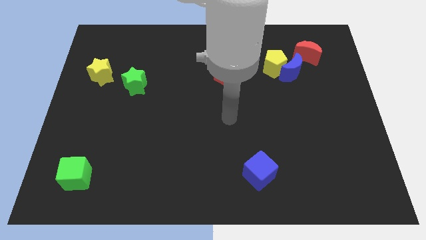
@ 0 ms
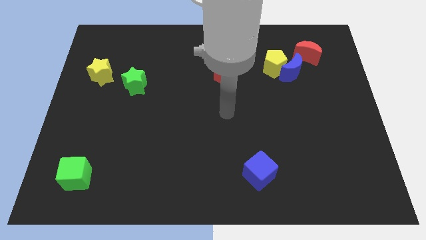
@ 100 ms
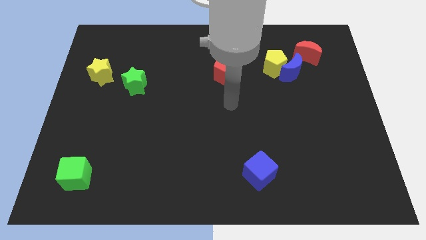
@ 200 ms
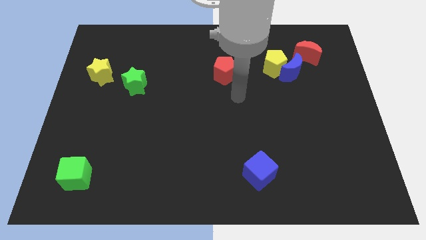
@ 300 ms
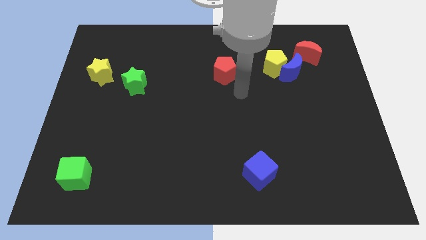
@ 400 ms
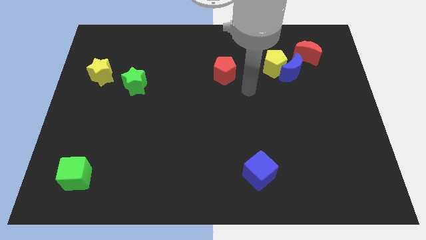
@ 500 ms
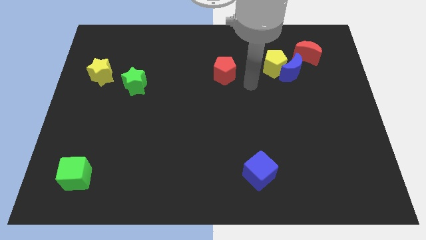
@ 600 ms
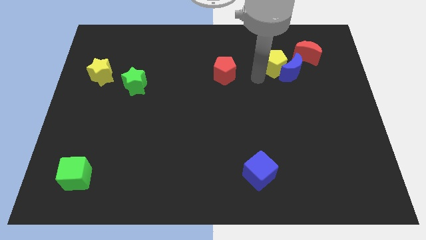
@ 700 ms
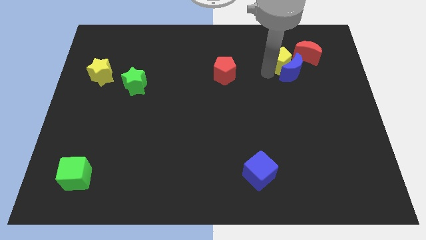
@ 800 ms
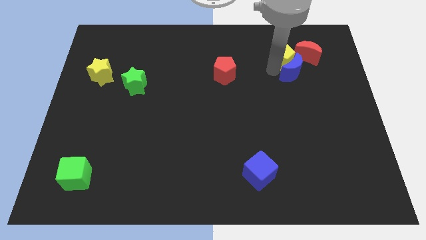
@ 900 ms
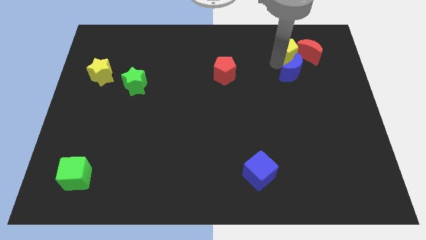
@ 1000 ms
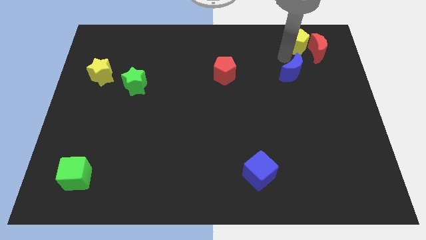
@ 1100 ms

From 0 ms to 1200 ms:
pull the blue moon apart from the yellow pentagon and red moon

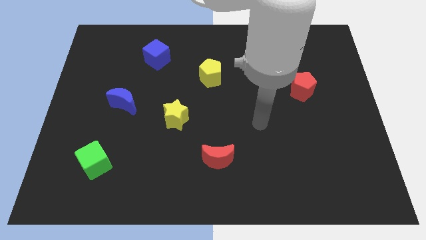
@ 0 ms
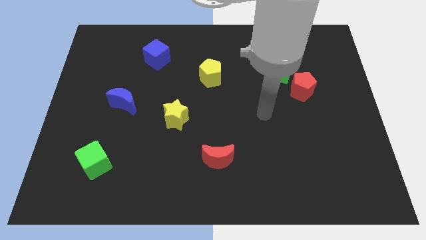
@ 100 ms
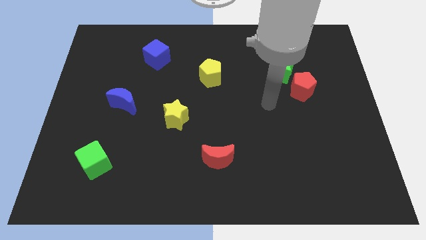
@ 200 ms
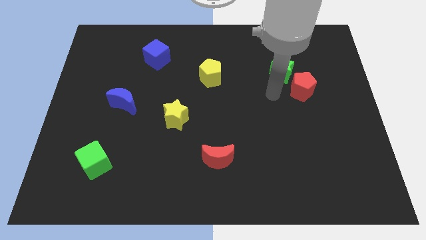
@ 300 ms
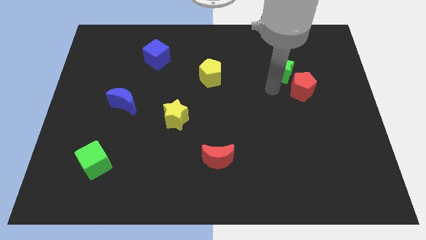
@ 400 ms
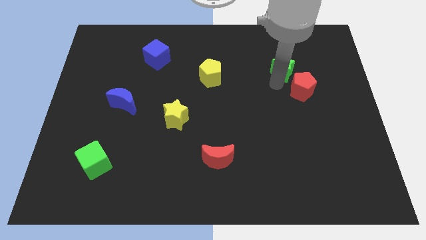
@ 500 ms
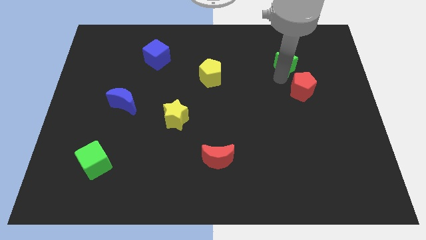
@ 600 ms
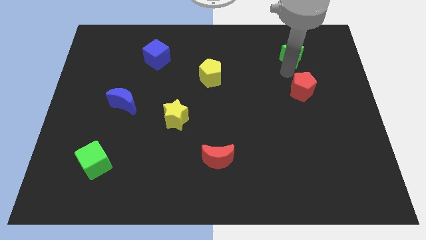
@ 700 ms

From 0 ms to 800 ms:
move the red pentagon away from the green star

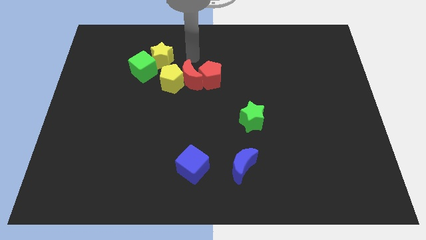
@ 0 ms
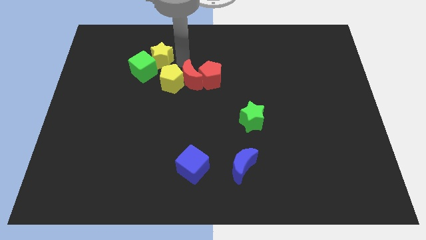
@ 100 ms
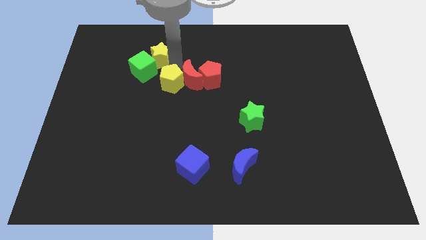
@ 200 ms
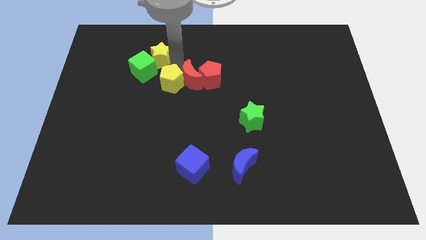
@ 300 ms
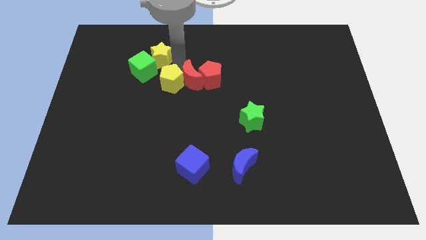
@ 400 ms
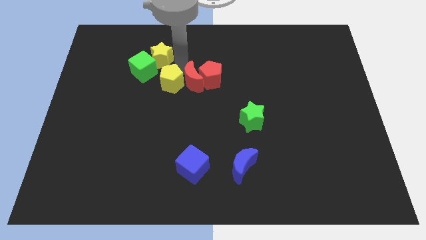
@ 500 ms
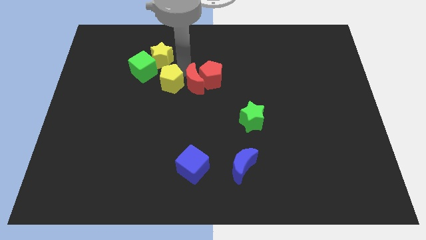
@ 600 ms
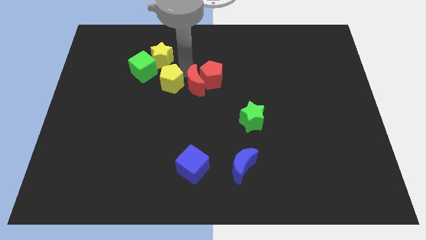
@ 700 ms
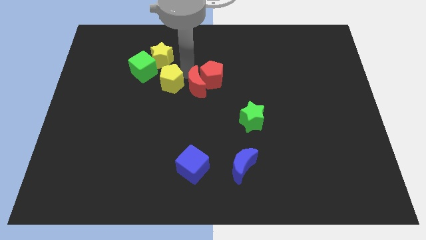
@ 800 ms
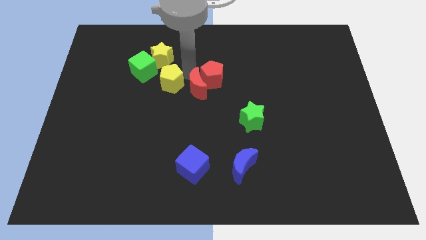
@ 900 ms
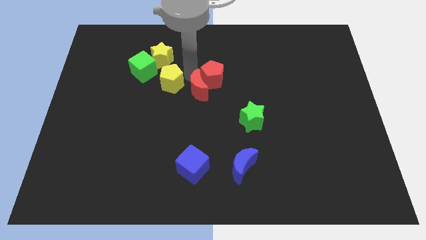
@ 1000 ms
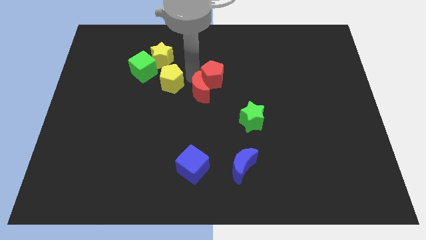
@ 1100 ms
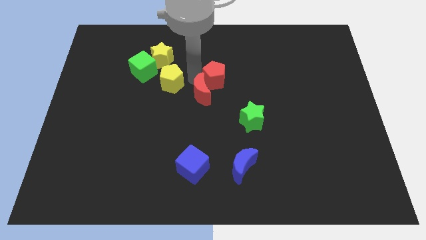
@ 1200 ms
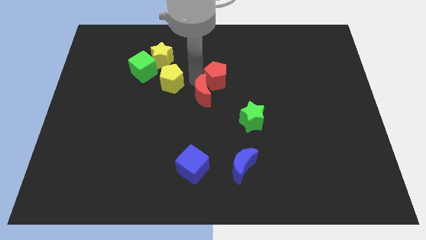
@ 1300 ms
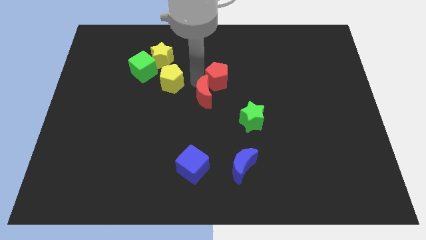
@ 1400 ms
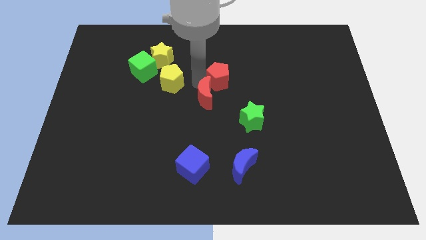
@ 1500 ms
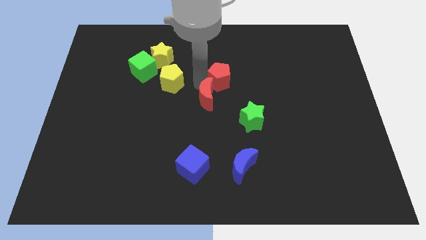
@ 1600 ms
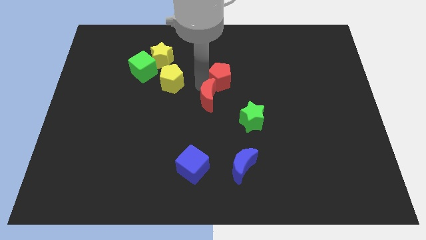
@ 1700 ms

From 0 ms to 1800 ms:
separate the red moon from the group

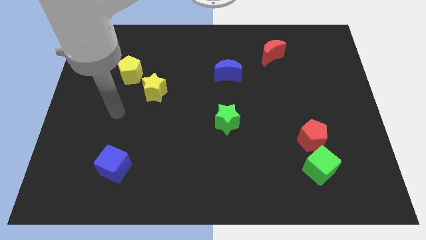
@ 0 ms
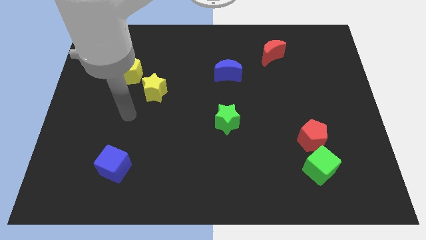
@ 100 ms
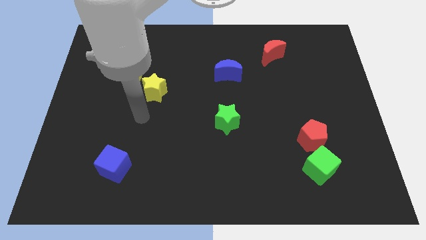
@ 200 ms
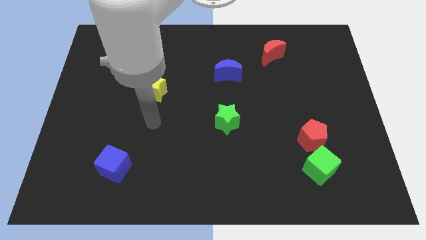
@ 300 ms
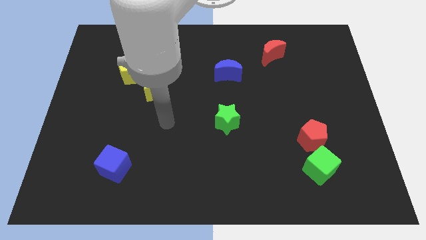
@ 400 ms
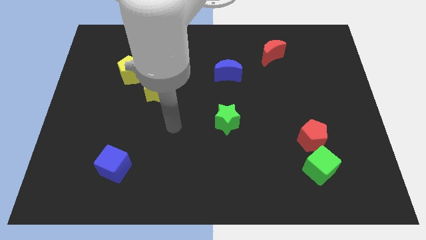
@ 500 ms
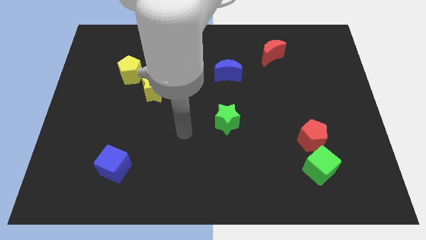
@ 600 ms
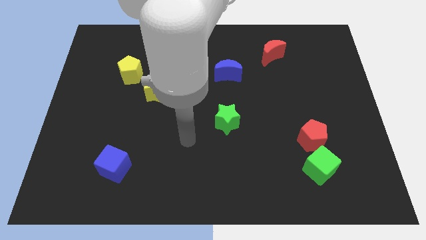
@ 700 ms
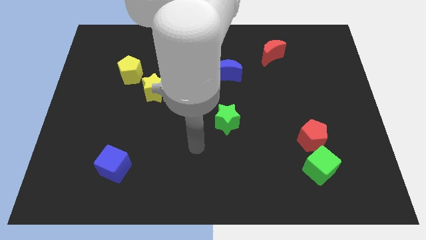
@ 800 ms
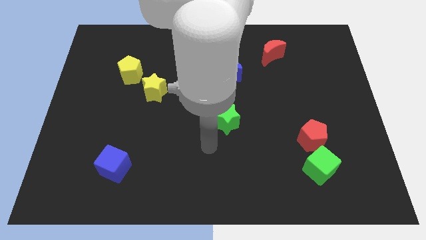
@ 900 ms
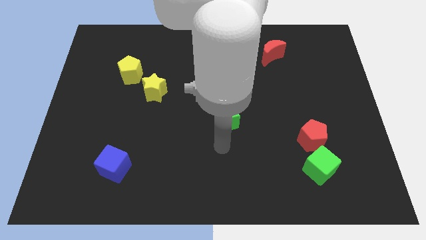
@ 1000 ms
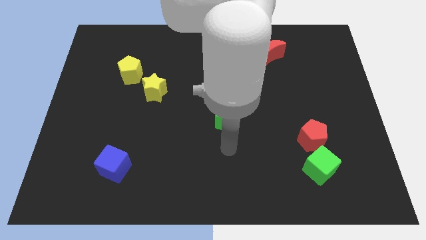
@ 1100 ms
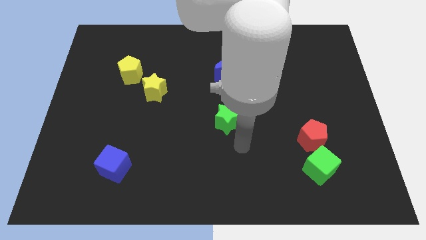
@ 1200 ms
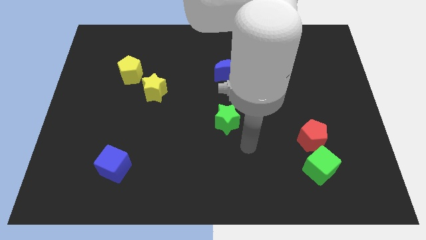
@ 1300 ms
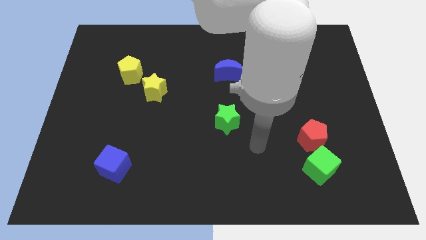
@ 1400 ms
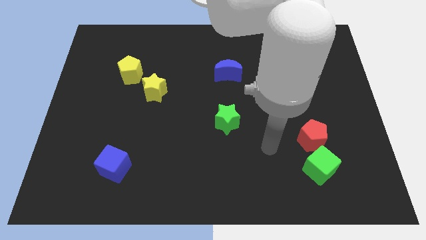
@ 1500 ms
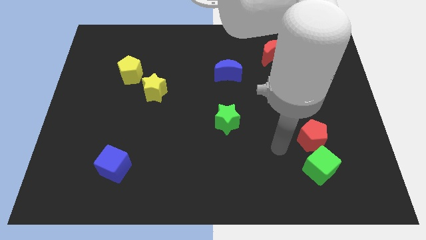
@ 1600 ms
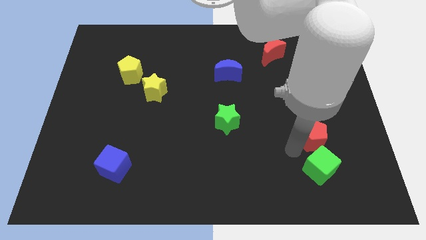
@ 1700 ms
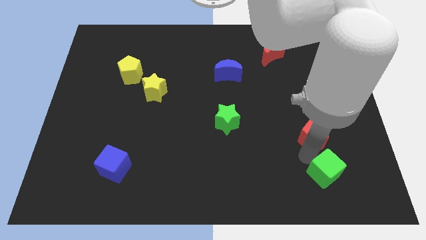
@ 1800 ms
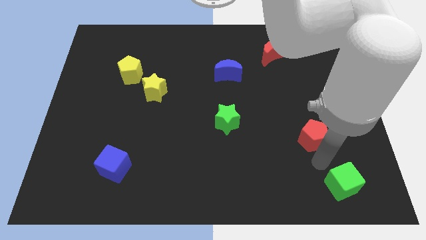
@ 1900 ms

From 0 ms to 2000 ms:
move the red pentagon away from the green cube

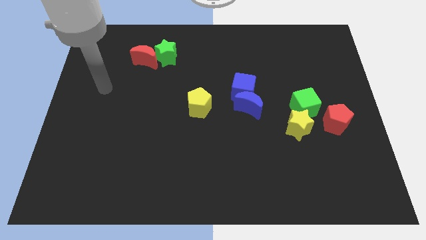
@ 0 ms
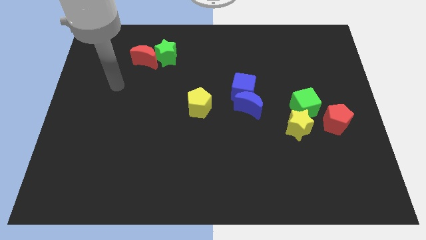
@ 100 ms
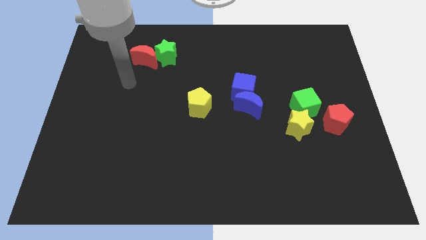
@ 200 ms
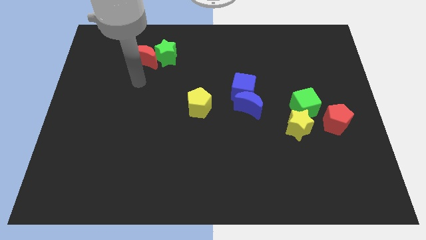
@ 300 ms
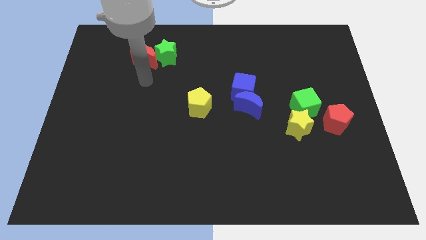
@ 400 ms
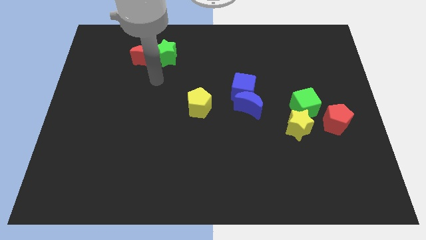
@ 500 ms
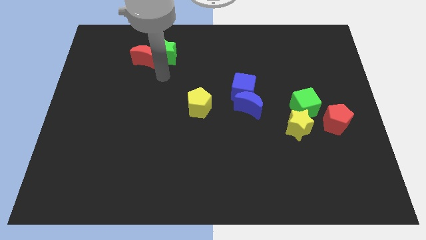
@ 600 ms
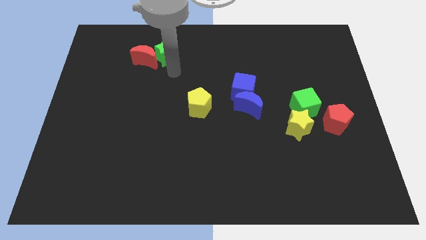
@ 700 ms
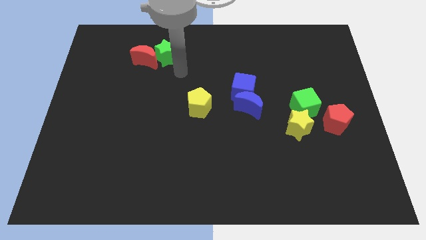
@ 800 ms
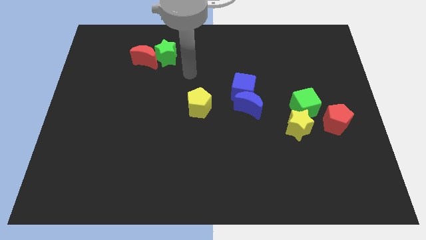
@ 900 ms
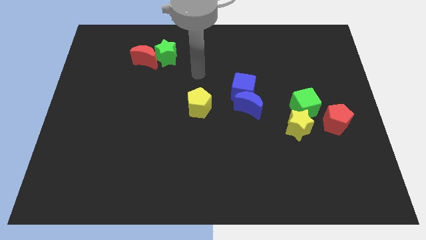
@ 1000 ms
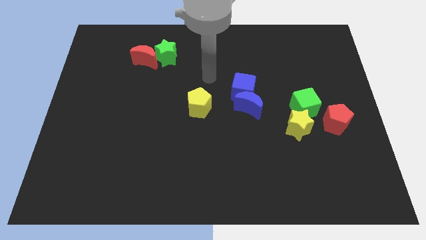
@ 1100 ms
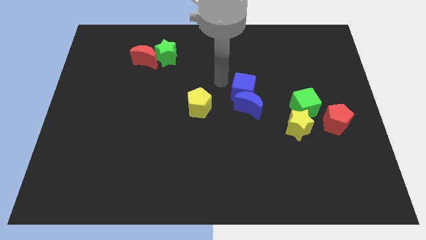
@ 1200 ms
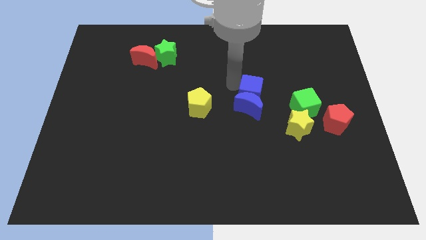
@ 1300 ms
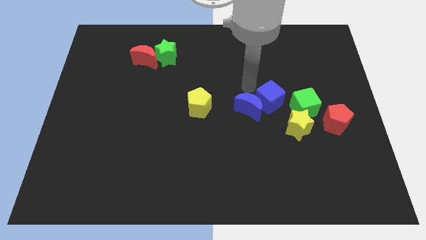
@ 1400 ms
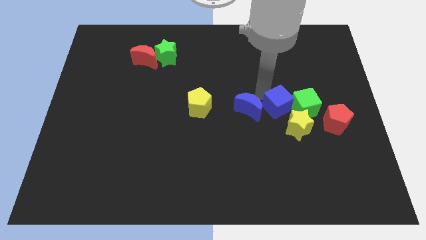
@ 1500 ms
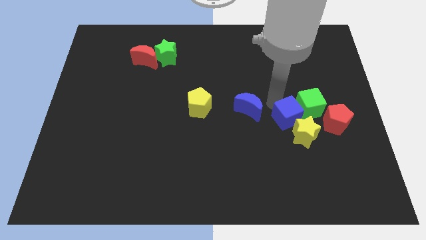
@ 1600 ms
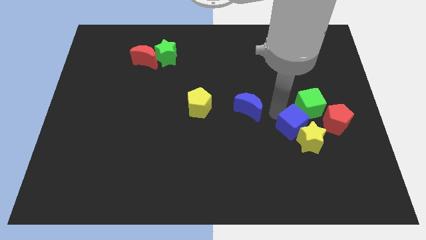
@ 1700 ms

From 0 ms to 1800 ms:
pull the blue moon apart from the blue cube

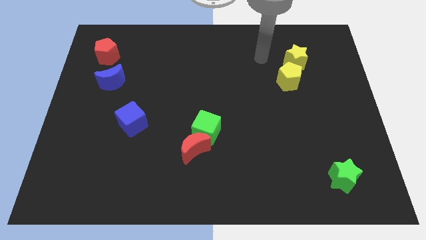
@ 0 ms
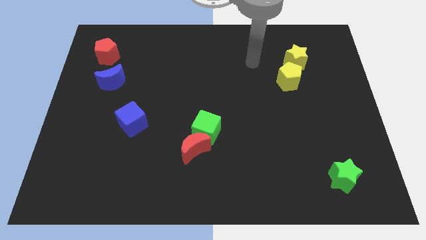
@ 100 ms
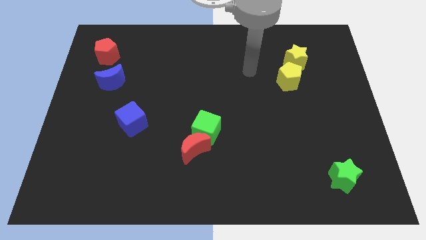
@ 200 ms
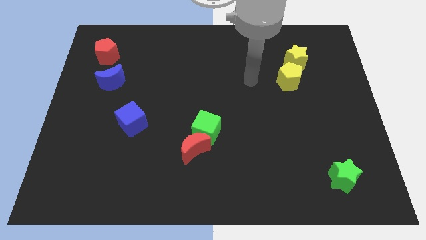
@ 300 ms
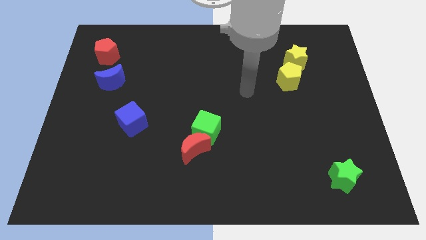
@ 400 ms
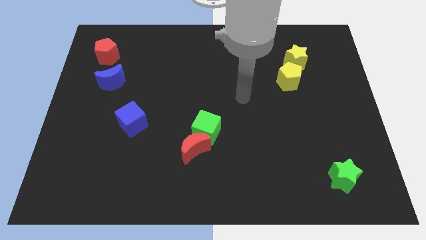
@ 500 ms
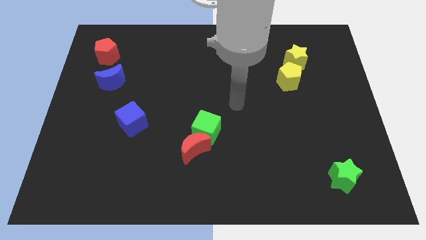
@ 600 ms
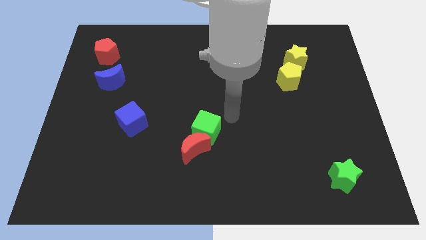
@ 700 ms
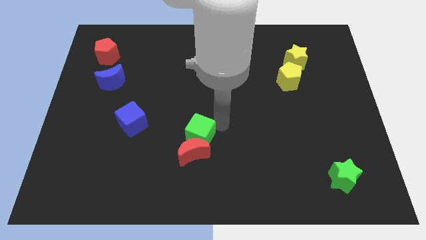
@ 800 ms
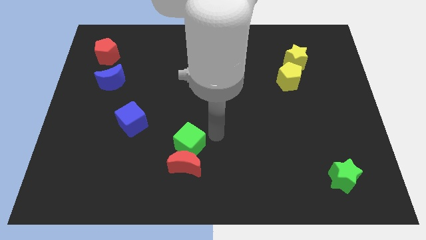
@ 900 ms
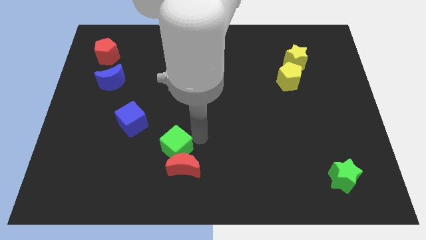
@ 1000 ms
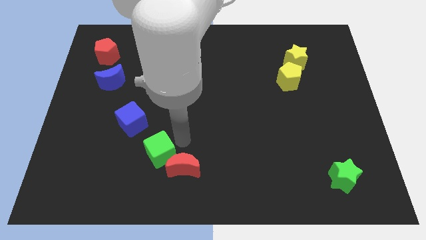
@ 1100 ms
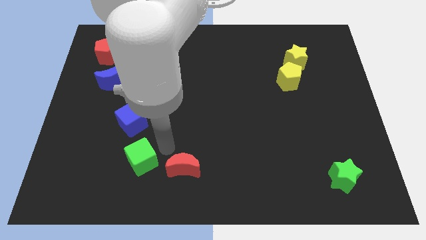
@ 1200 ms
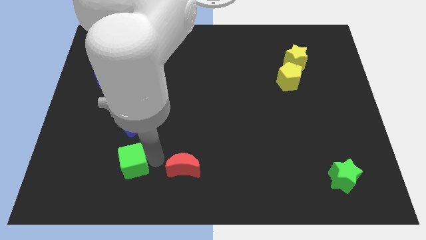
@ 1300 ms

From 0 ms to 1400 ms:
pull the red moon apart from the green cube

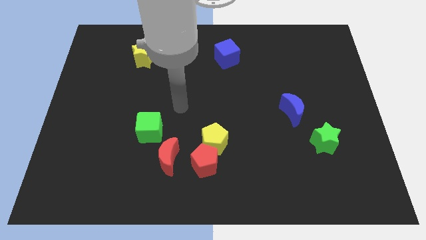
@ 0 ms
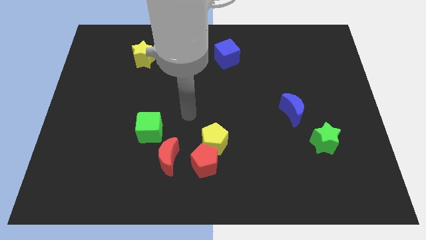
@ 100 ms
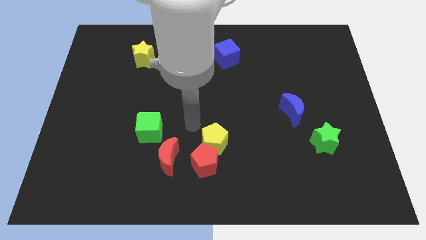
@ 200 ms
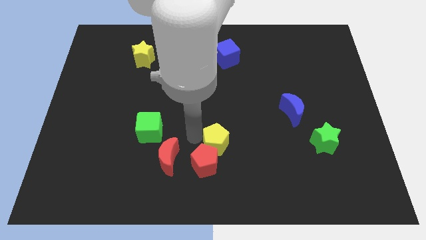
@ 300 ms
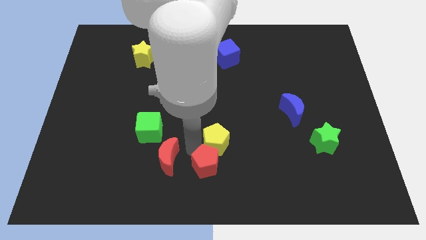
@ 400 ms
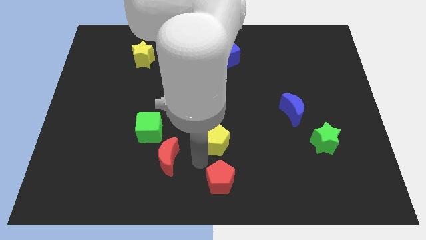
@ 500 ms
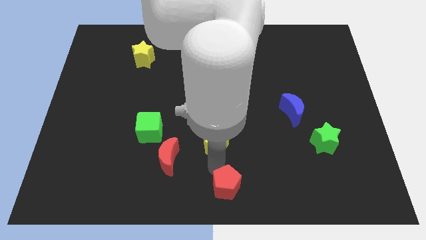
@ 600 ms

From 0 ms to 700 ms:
pull the yellow pentagon apart from the red pentagon
